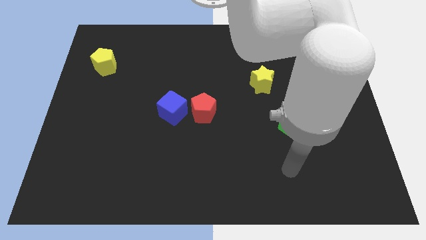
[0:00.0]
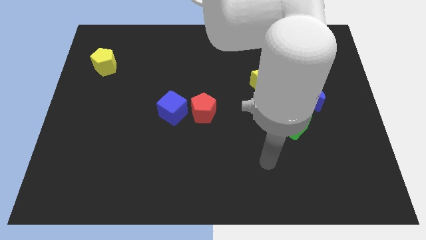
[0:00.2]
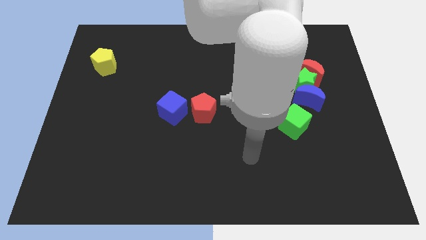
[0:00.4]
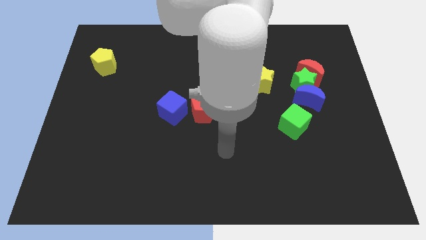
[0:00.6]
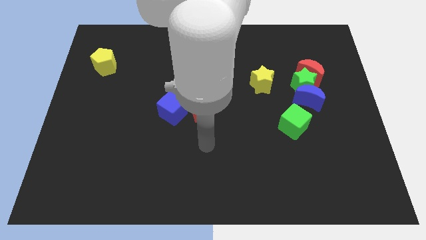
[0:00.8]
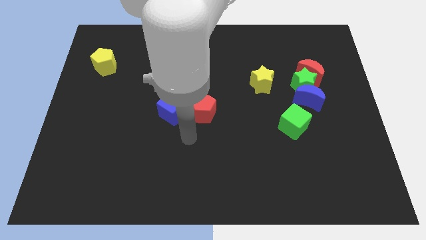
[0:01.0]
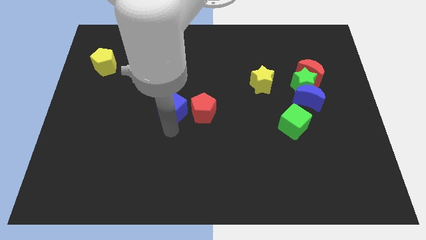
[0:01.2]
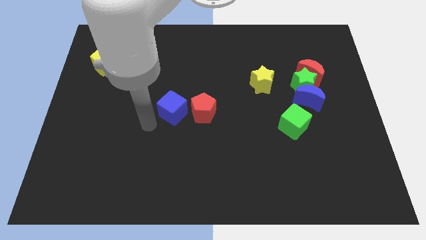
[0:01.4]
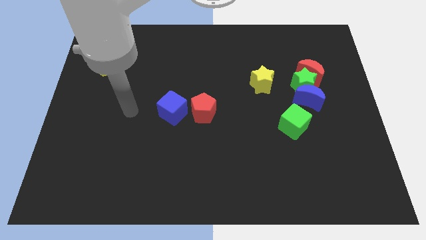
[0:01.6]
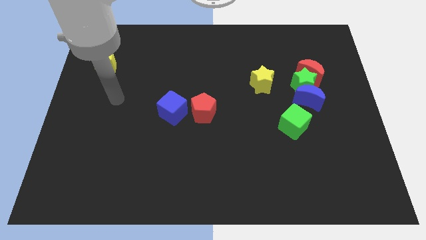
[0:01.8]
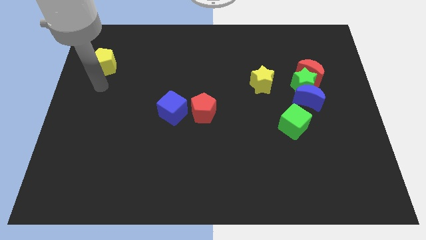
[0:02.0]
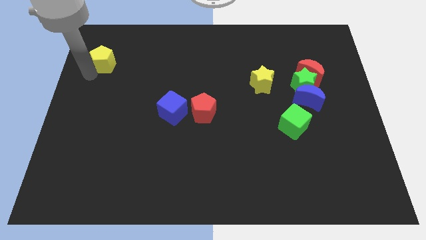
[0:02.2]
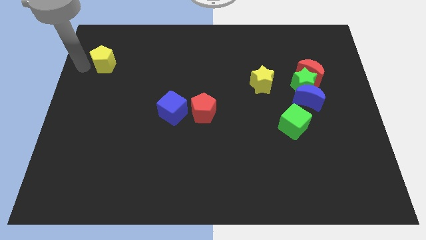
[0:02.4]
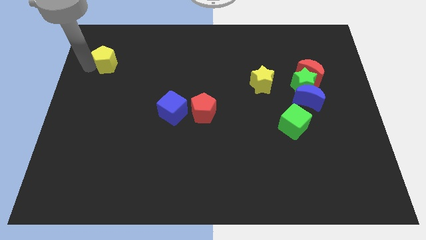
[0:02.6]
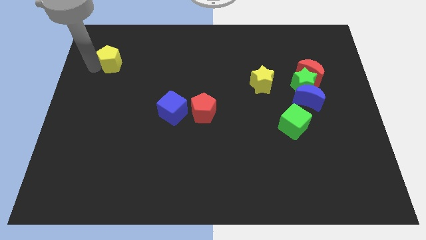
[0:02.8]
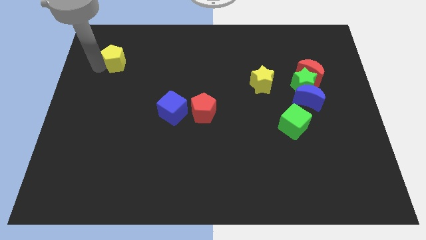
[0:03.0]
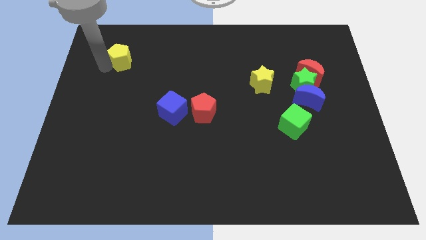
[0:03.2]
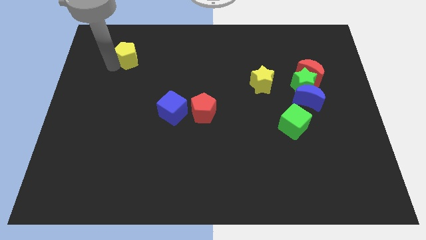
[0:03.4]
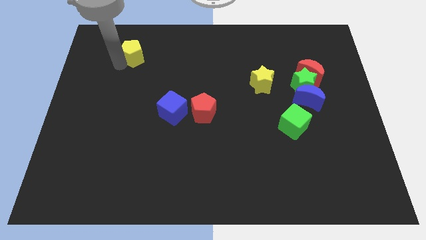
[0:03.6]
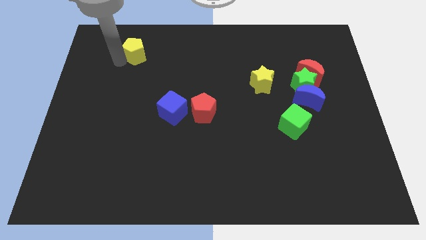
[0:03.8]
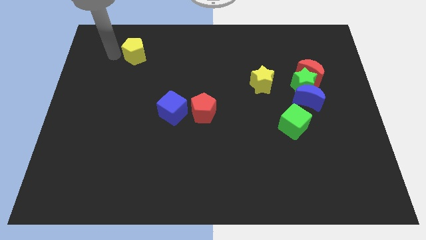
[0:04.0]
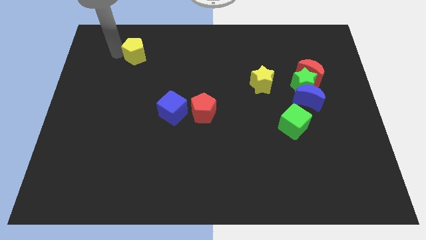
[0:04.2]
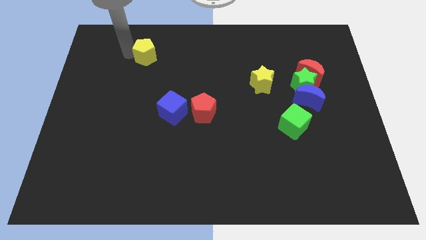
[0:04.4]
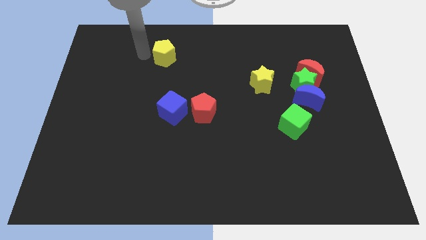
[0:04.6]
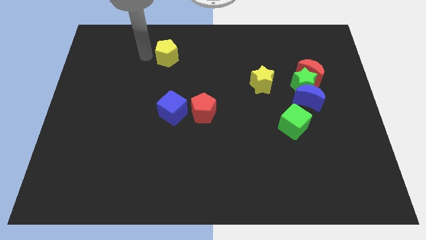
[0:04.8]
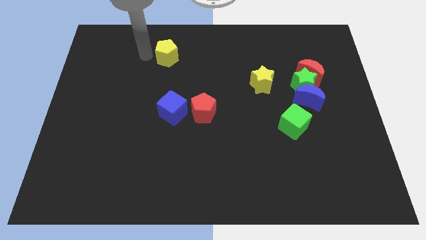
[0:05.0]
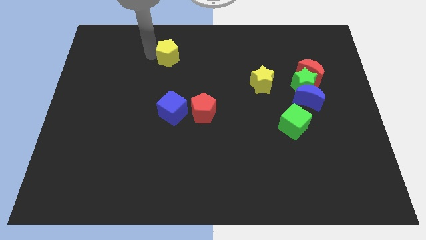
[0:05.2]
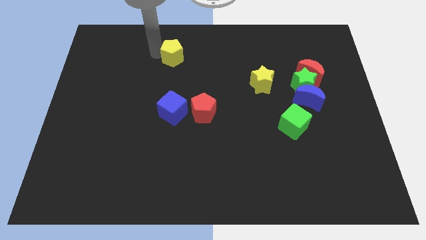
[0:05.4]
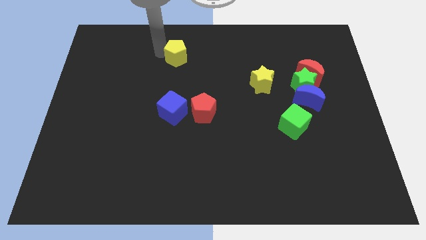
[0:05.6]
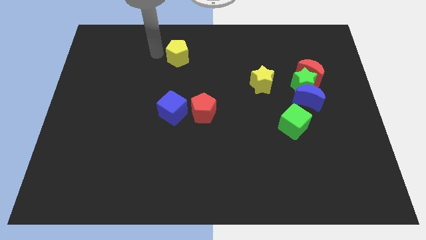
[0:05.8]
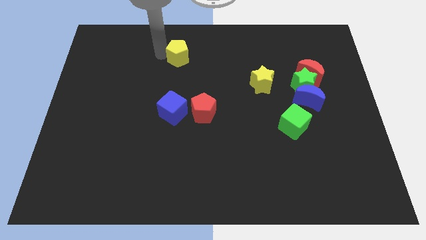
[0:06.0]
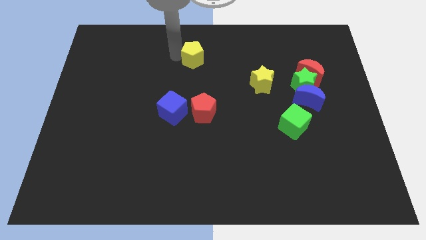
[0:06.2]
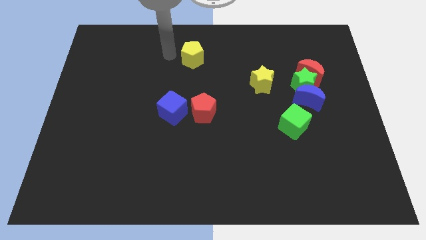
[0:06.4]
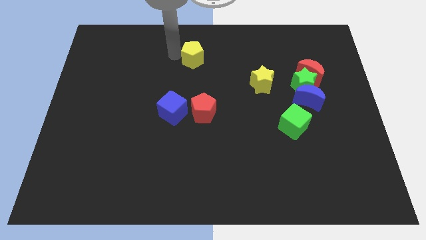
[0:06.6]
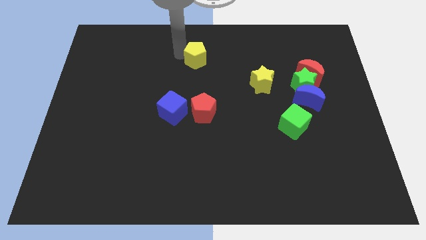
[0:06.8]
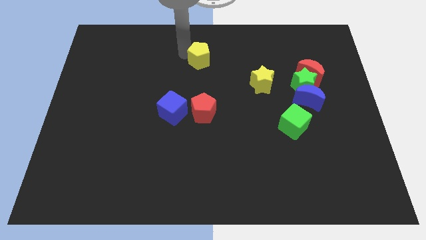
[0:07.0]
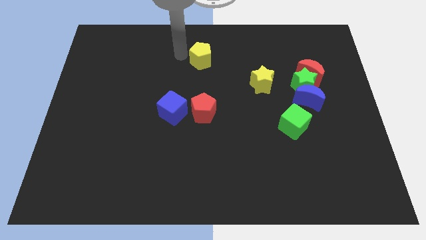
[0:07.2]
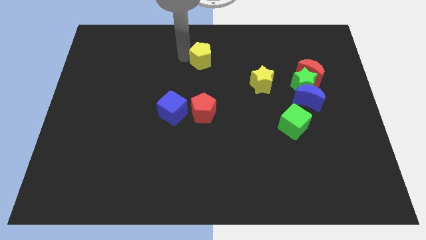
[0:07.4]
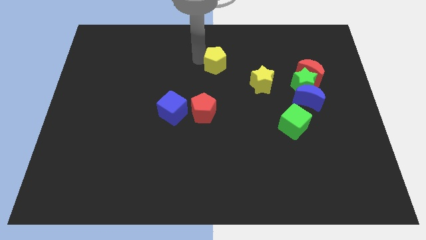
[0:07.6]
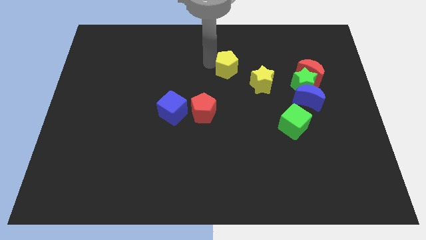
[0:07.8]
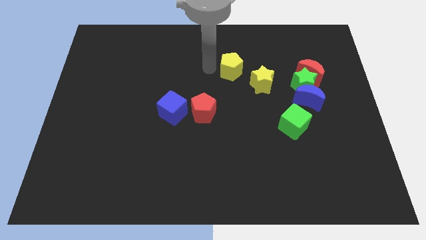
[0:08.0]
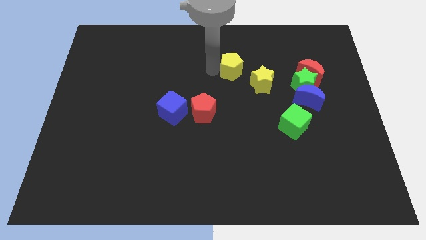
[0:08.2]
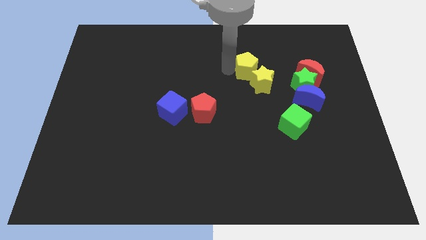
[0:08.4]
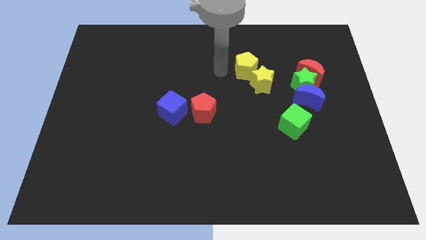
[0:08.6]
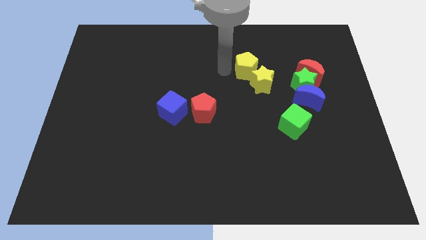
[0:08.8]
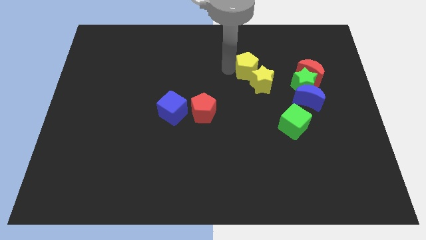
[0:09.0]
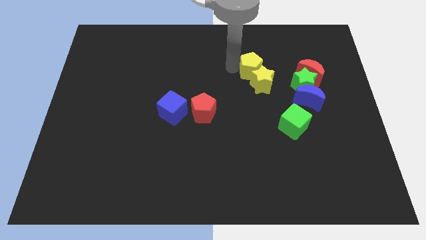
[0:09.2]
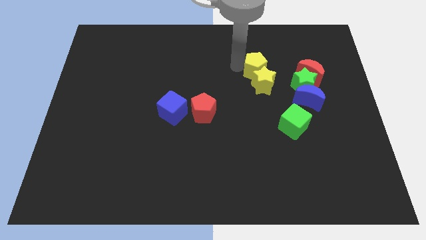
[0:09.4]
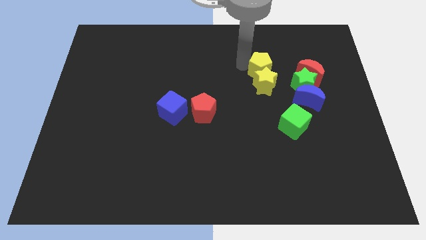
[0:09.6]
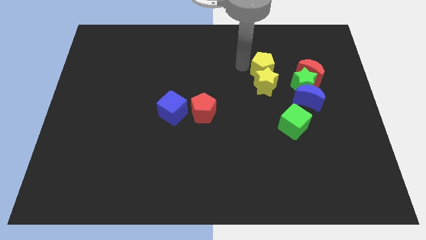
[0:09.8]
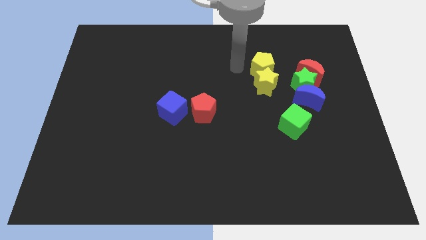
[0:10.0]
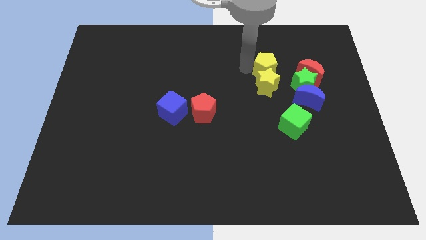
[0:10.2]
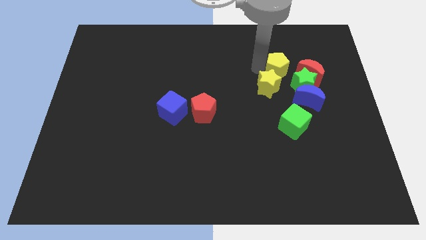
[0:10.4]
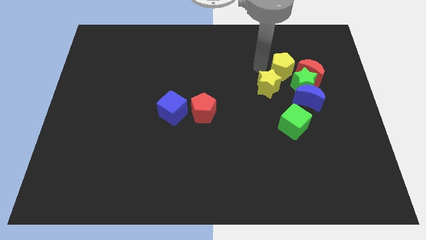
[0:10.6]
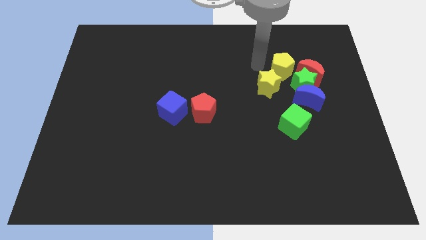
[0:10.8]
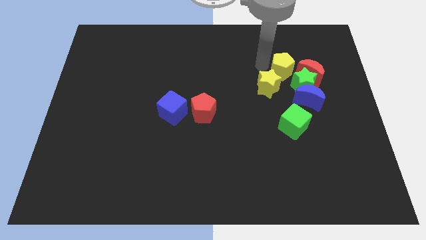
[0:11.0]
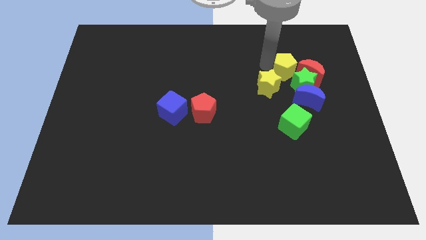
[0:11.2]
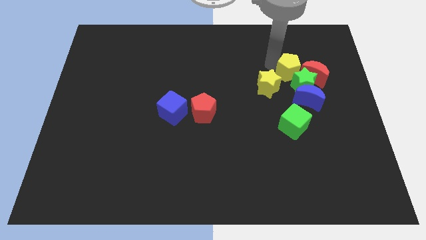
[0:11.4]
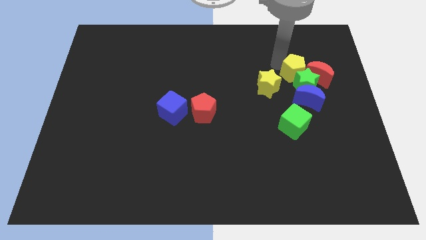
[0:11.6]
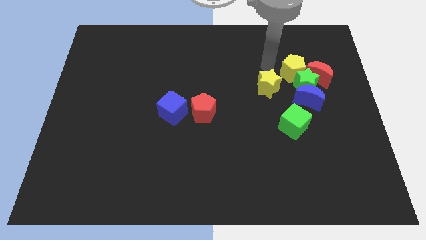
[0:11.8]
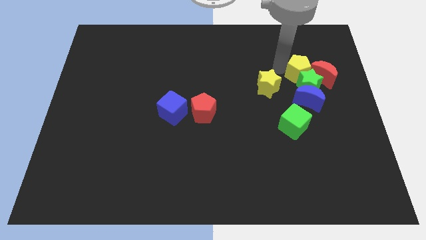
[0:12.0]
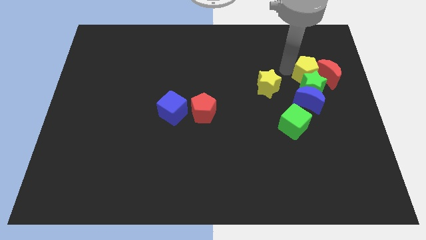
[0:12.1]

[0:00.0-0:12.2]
push the yellow pentagon close to the red moon
